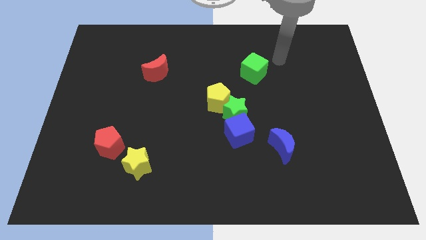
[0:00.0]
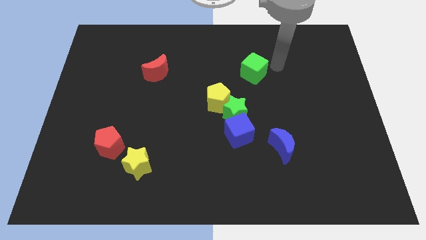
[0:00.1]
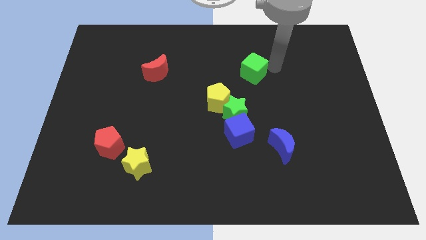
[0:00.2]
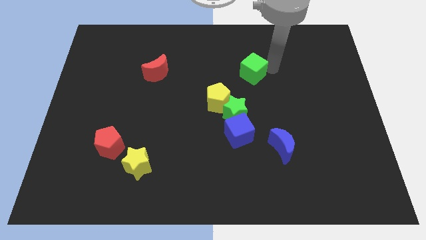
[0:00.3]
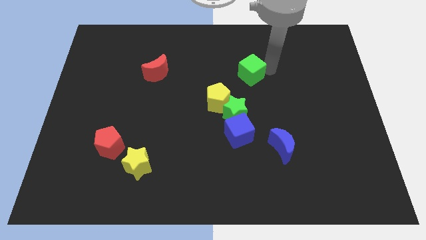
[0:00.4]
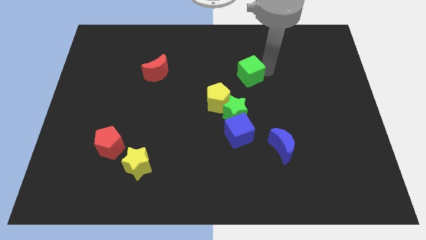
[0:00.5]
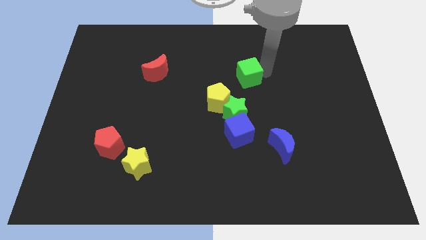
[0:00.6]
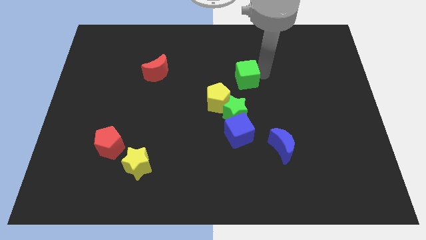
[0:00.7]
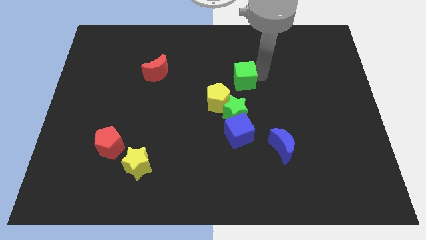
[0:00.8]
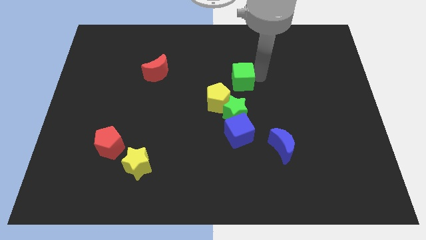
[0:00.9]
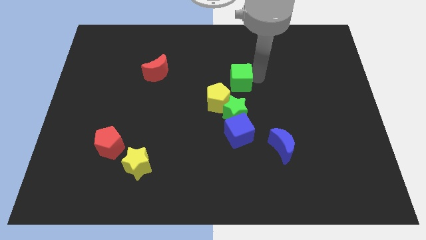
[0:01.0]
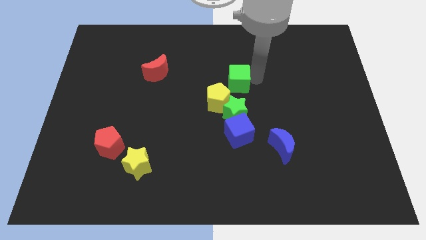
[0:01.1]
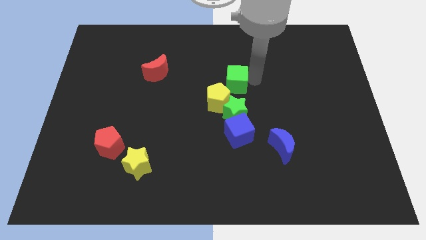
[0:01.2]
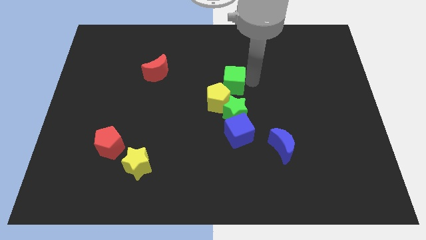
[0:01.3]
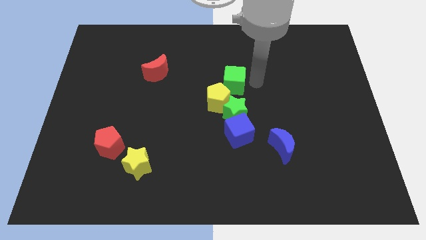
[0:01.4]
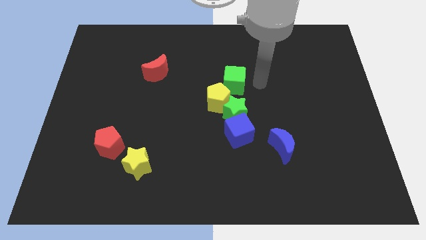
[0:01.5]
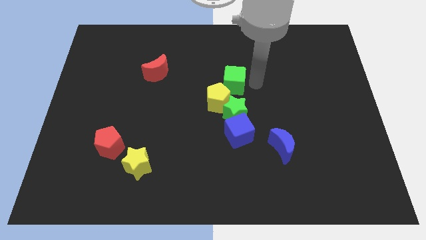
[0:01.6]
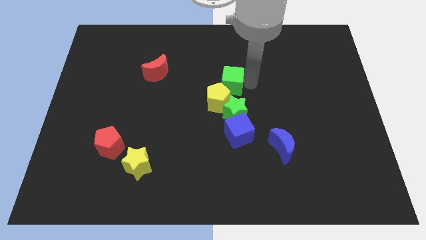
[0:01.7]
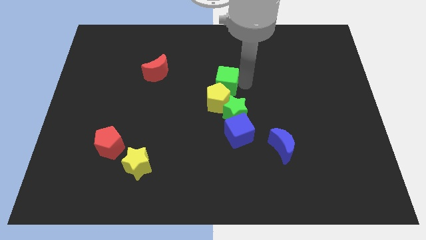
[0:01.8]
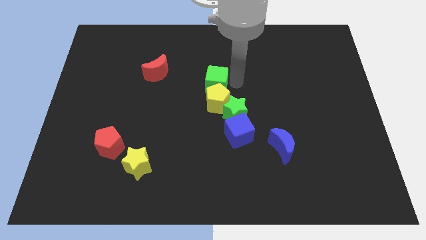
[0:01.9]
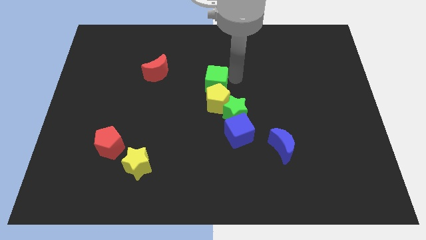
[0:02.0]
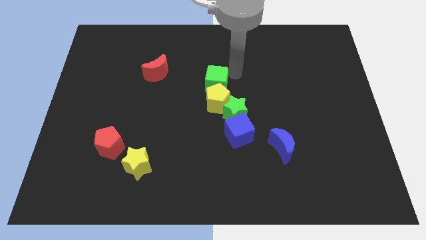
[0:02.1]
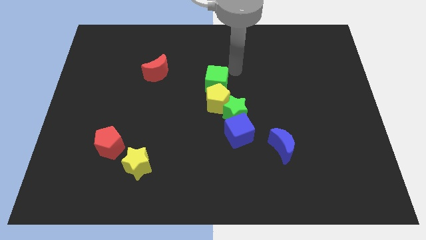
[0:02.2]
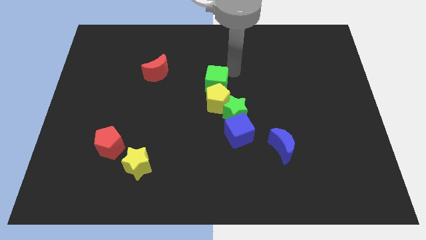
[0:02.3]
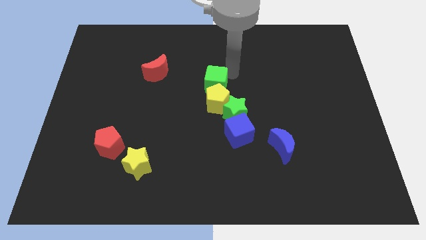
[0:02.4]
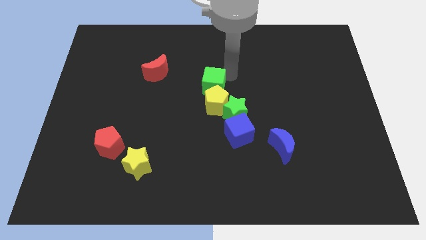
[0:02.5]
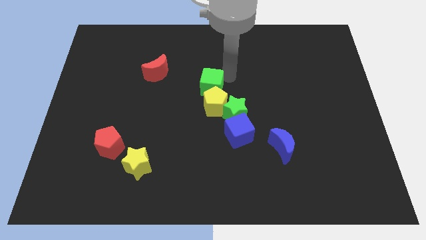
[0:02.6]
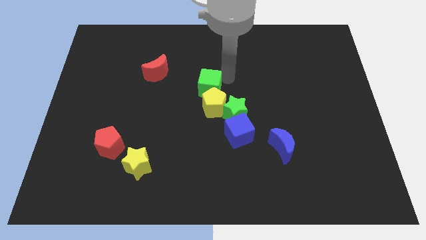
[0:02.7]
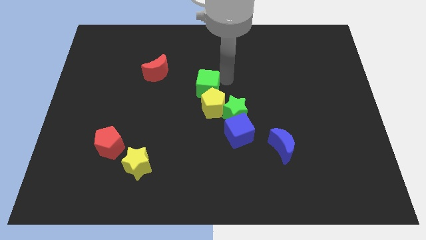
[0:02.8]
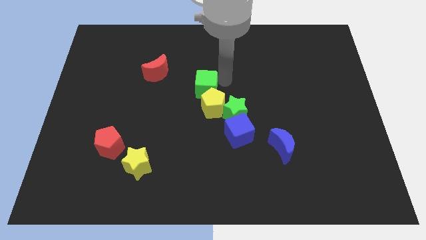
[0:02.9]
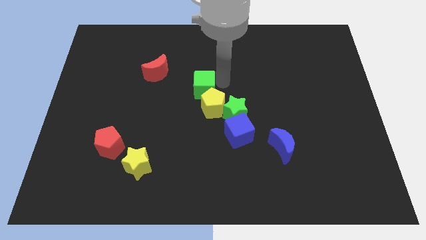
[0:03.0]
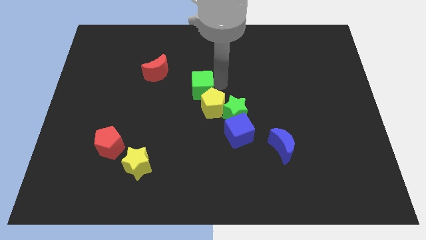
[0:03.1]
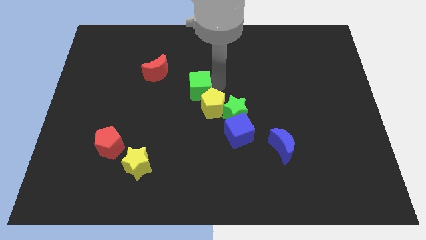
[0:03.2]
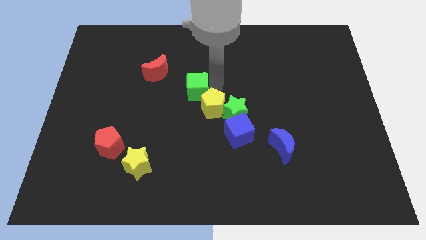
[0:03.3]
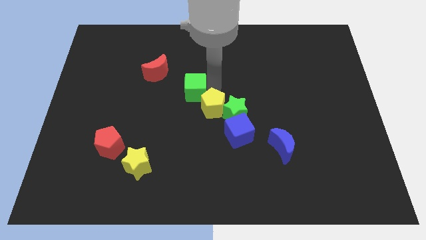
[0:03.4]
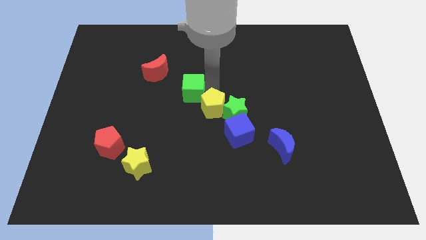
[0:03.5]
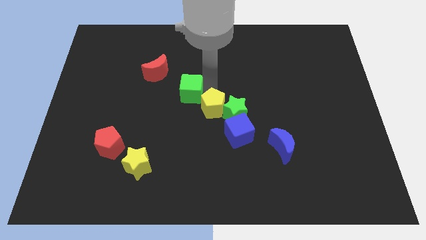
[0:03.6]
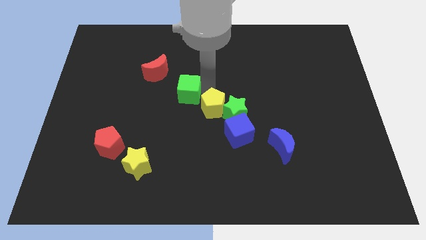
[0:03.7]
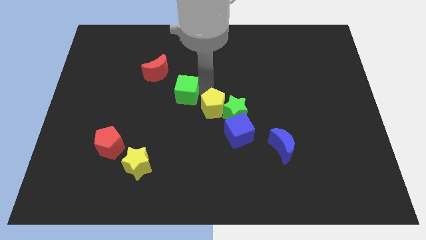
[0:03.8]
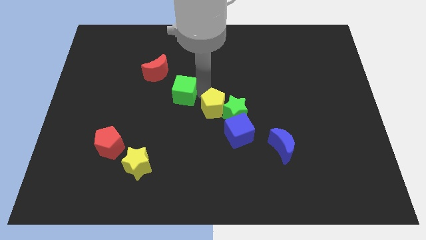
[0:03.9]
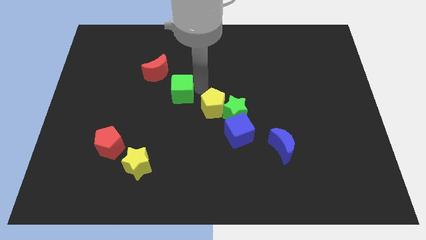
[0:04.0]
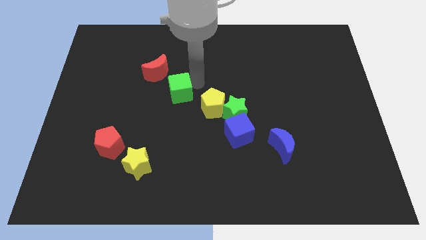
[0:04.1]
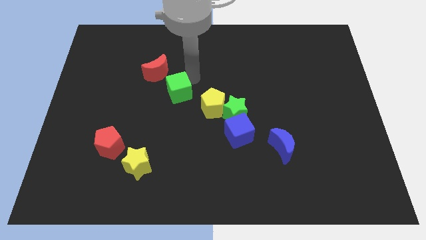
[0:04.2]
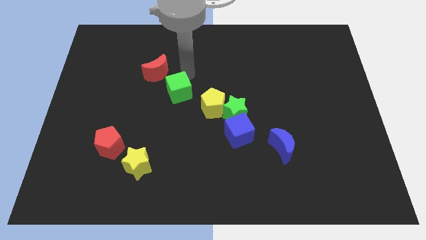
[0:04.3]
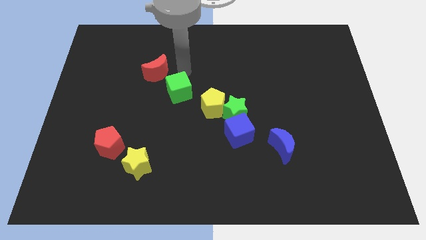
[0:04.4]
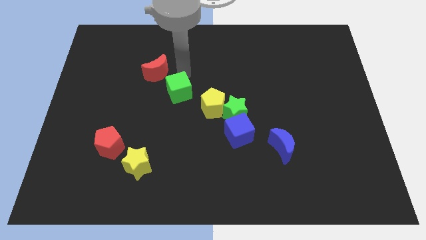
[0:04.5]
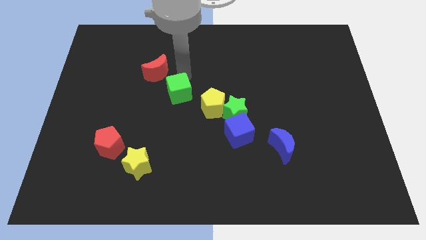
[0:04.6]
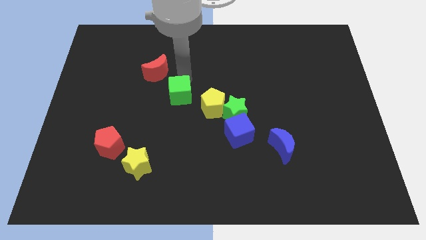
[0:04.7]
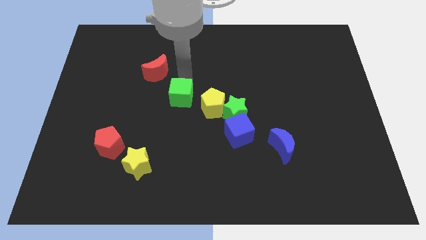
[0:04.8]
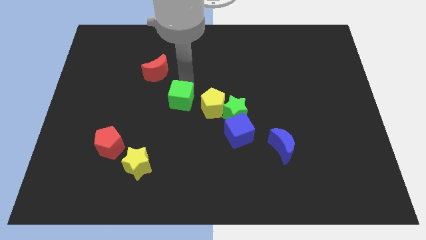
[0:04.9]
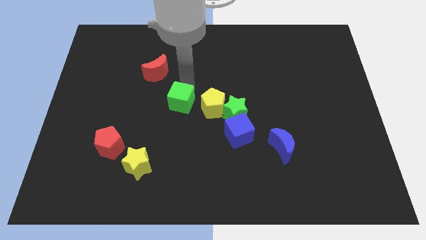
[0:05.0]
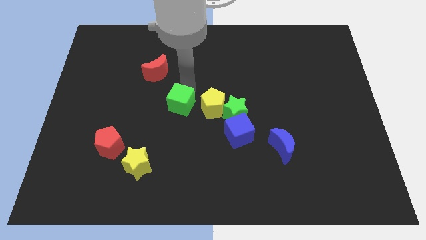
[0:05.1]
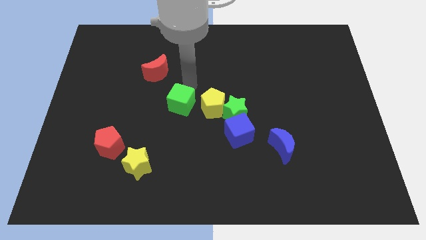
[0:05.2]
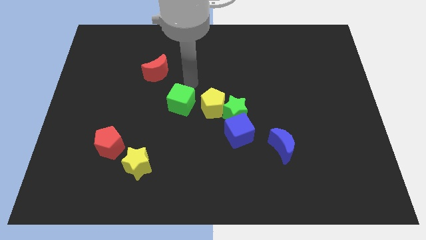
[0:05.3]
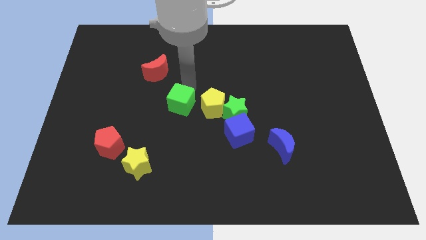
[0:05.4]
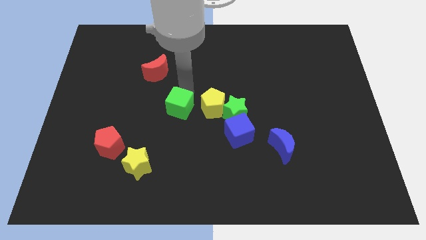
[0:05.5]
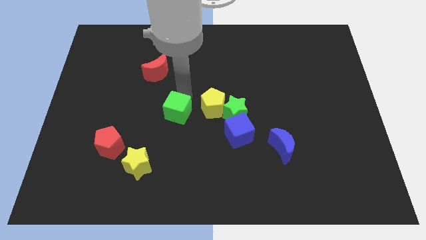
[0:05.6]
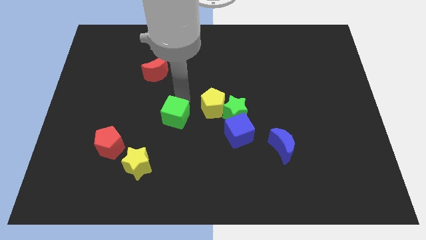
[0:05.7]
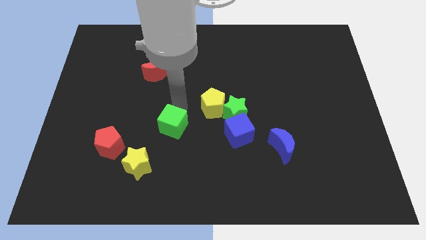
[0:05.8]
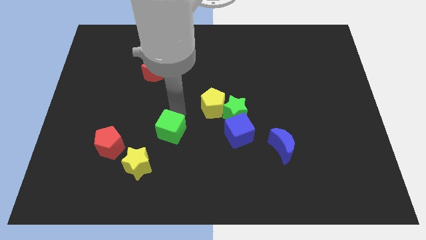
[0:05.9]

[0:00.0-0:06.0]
put the green cube to the right side of the red pentagon
